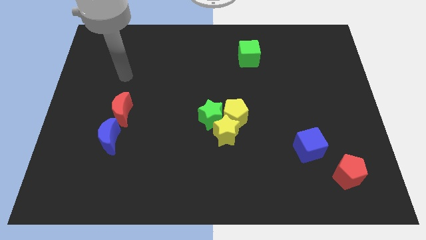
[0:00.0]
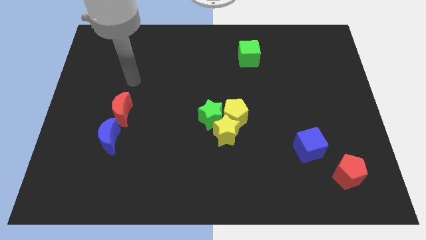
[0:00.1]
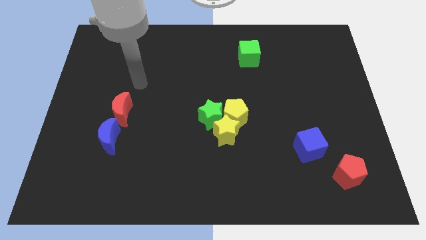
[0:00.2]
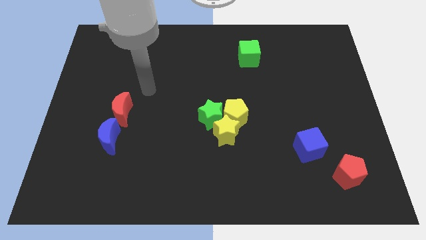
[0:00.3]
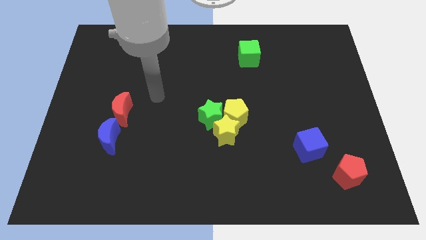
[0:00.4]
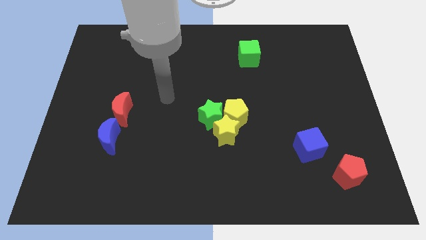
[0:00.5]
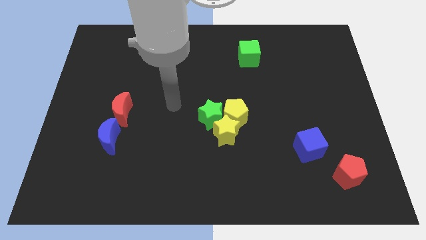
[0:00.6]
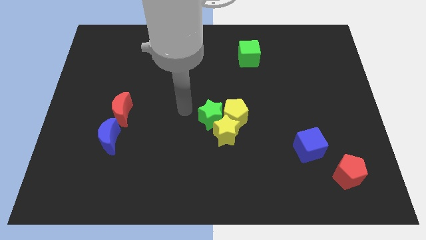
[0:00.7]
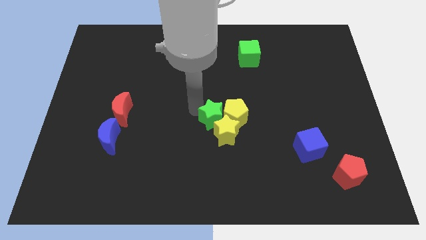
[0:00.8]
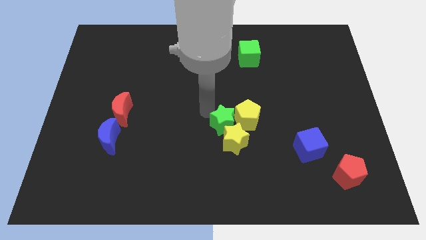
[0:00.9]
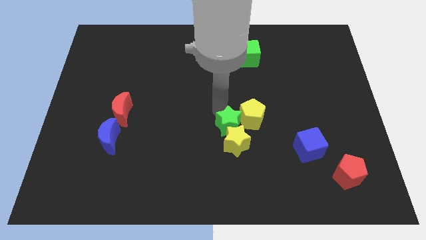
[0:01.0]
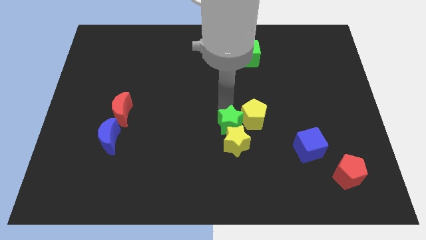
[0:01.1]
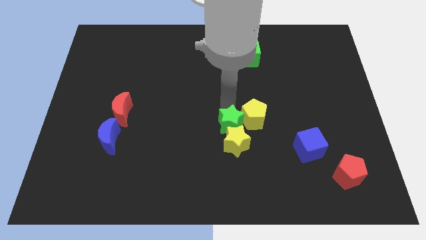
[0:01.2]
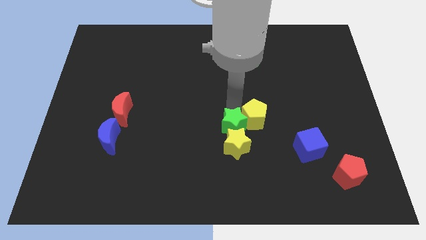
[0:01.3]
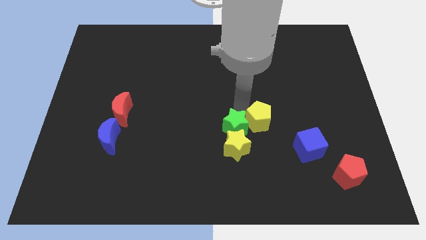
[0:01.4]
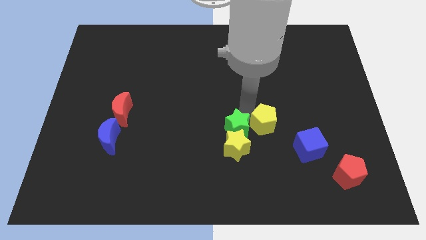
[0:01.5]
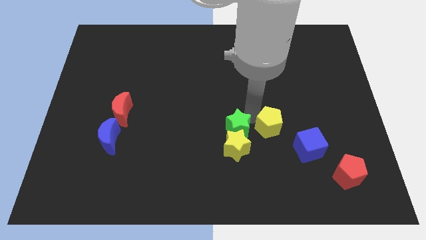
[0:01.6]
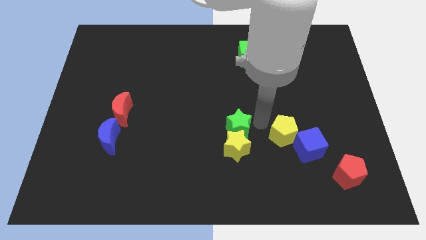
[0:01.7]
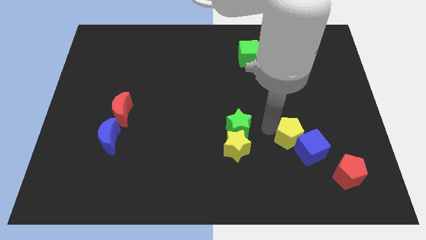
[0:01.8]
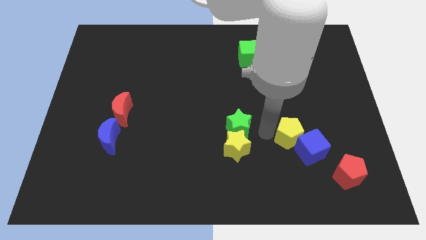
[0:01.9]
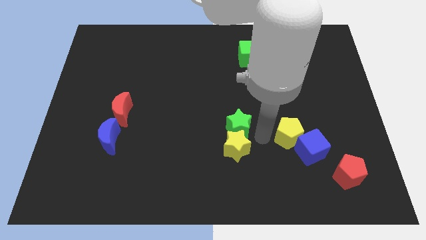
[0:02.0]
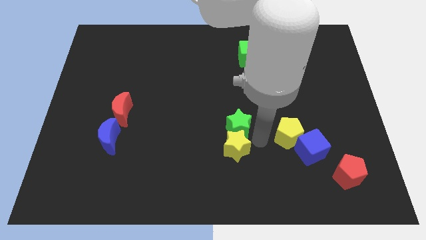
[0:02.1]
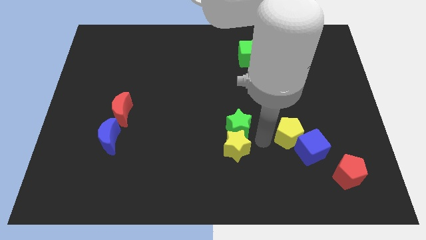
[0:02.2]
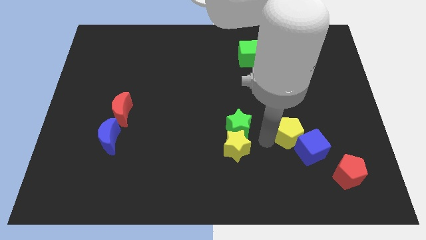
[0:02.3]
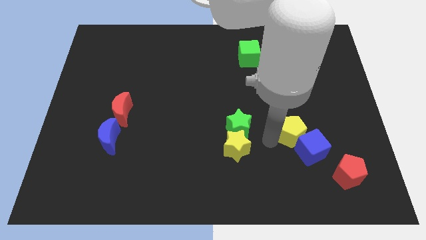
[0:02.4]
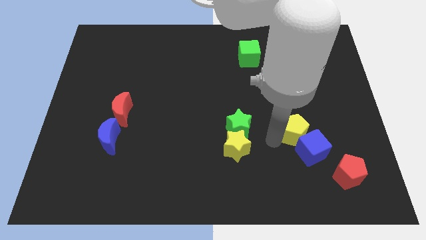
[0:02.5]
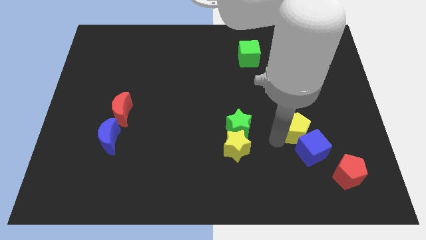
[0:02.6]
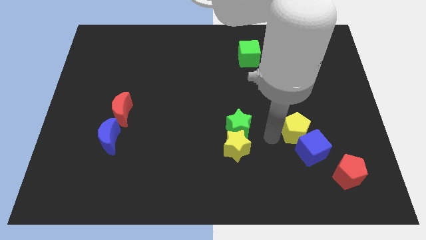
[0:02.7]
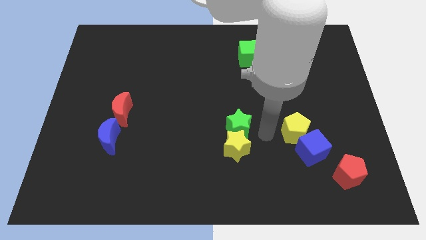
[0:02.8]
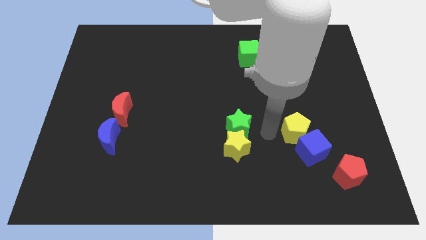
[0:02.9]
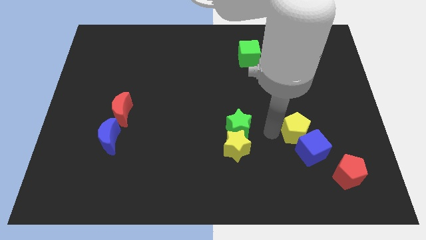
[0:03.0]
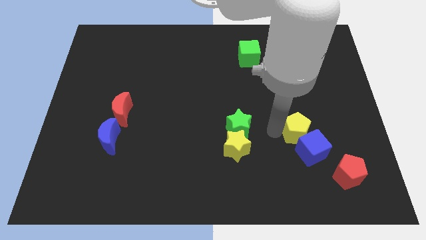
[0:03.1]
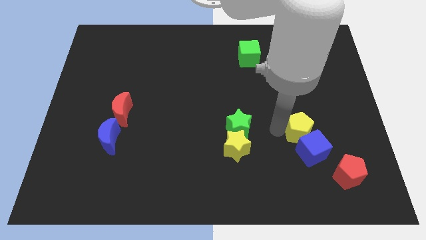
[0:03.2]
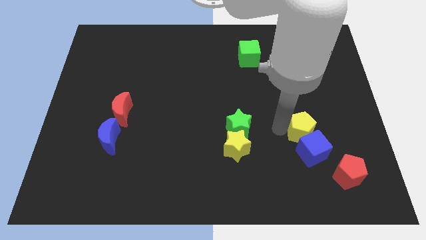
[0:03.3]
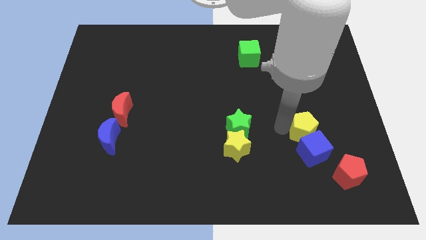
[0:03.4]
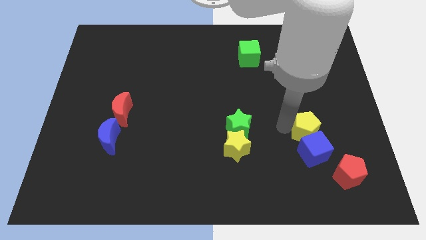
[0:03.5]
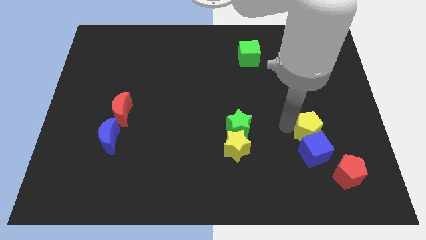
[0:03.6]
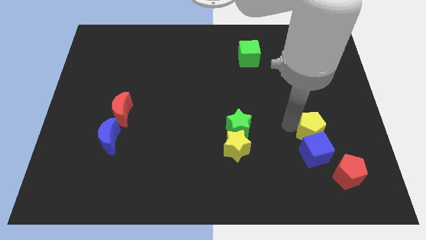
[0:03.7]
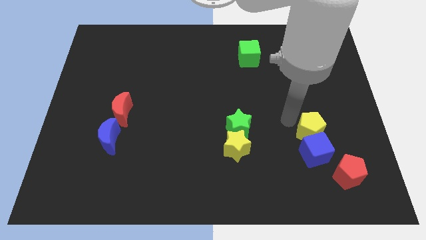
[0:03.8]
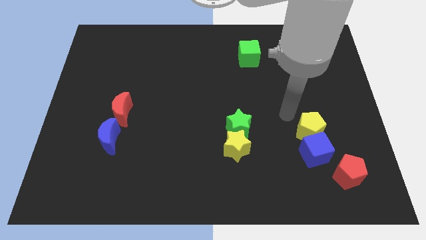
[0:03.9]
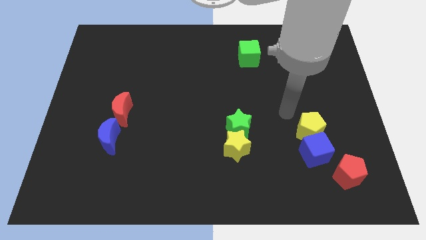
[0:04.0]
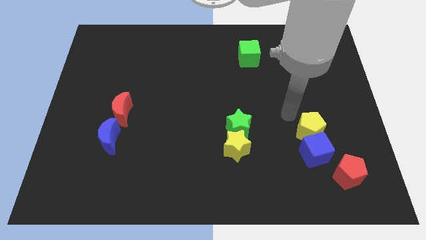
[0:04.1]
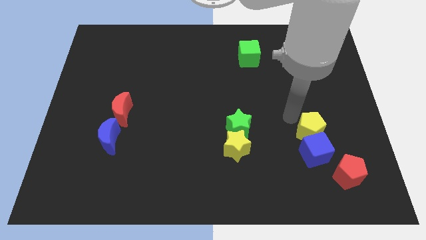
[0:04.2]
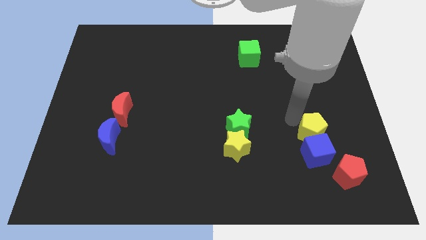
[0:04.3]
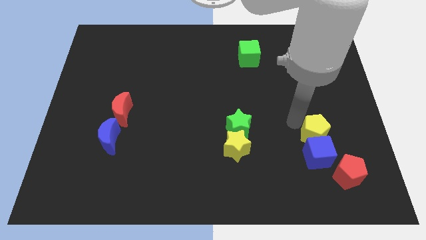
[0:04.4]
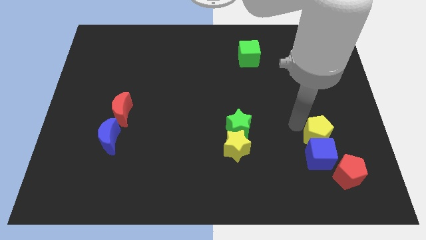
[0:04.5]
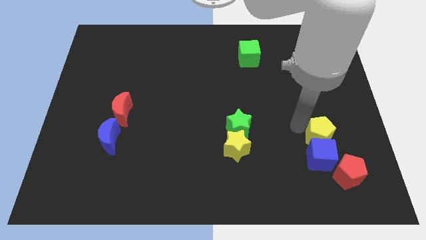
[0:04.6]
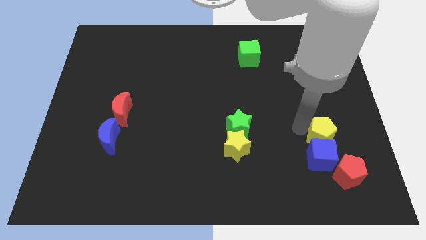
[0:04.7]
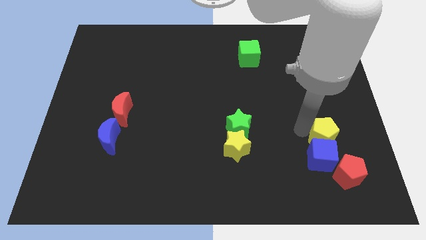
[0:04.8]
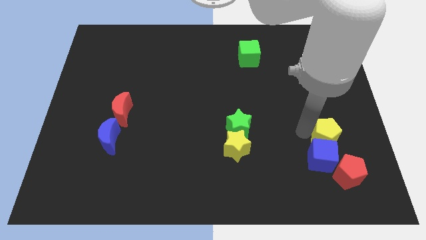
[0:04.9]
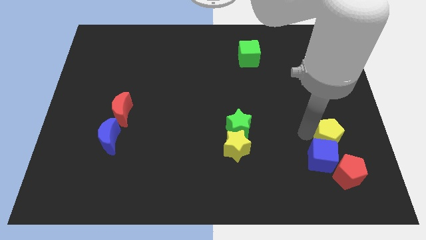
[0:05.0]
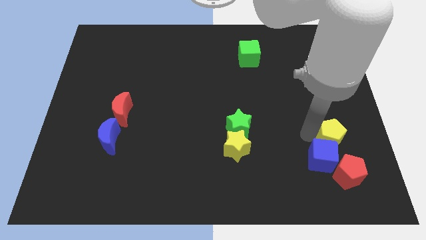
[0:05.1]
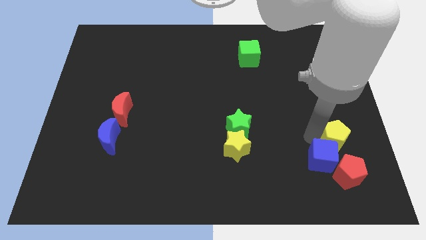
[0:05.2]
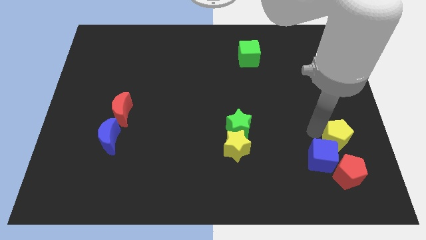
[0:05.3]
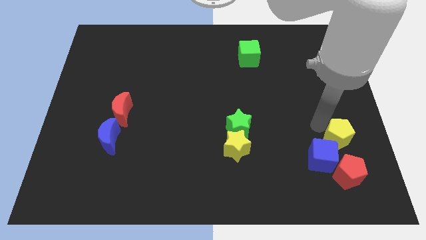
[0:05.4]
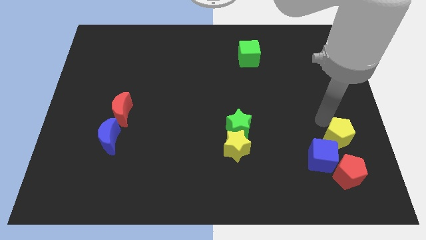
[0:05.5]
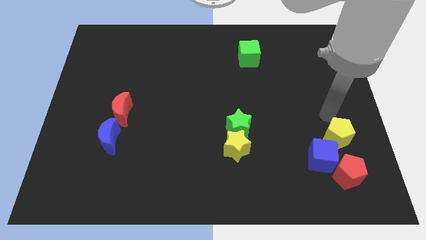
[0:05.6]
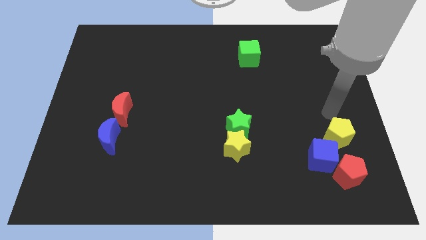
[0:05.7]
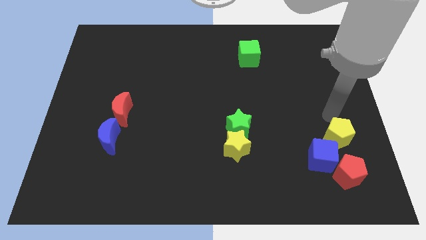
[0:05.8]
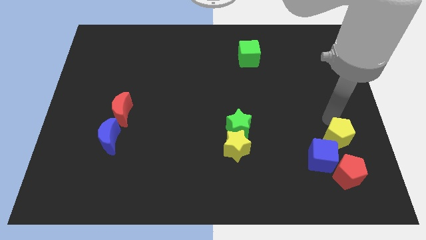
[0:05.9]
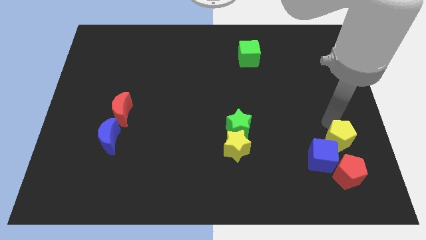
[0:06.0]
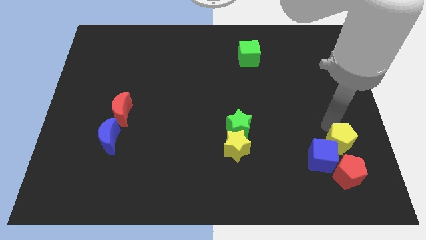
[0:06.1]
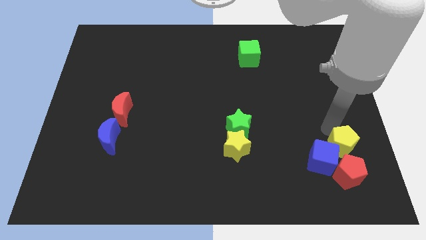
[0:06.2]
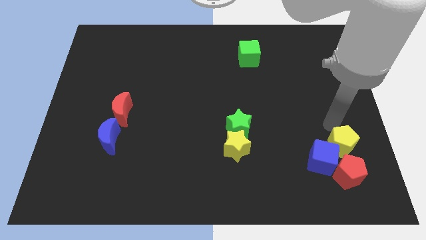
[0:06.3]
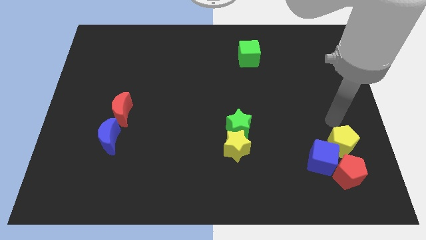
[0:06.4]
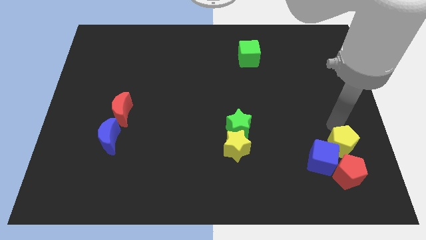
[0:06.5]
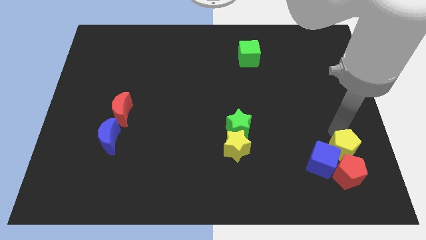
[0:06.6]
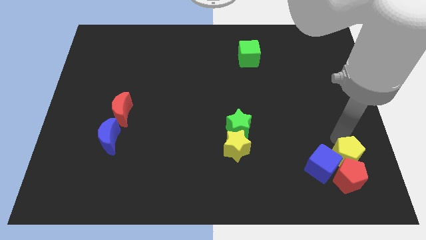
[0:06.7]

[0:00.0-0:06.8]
slide the yellow pentagon next to the red pentagon

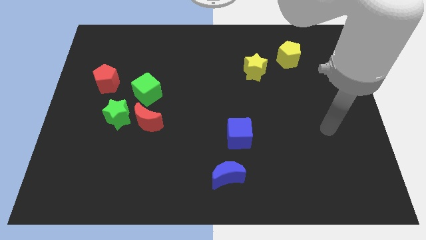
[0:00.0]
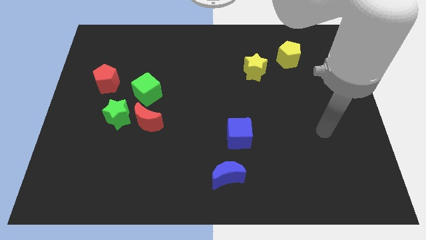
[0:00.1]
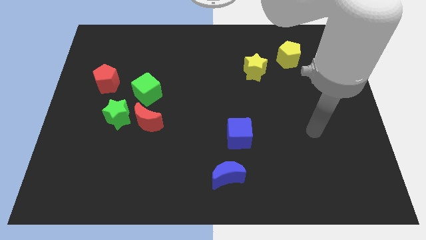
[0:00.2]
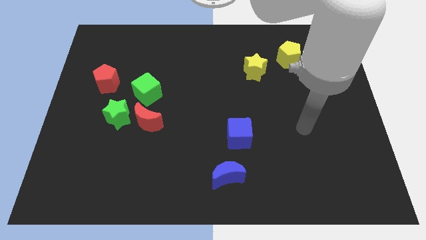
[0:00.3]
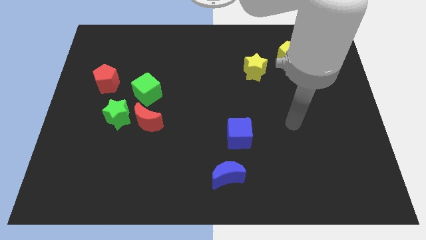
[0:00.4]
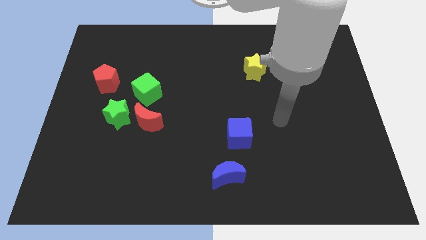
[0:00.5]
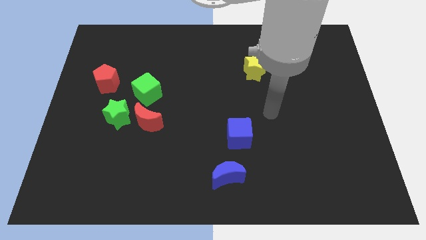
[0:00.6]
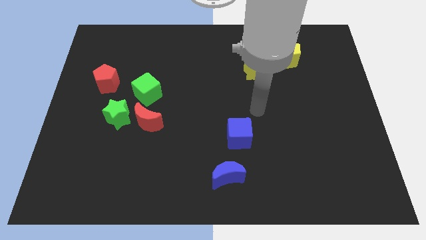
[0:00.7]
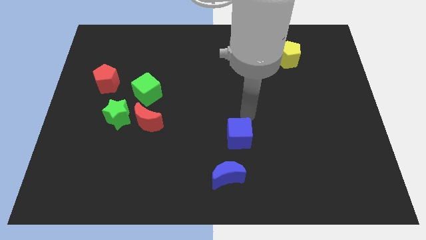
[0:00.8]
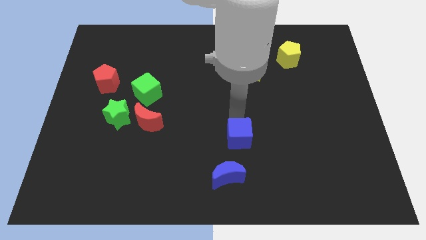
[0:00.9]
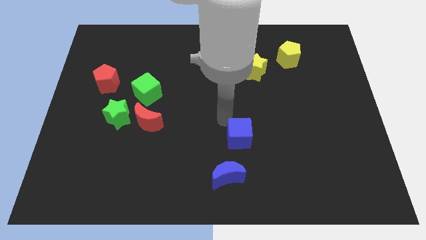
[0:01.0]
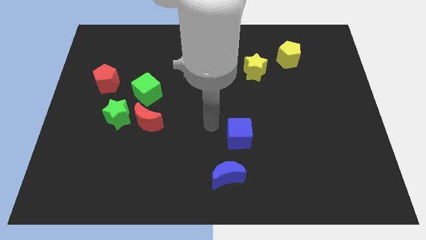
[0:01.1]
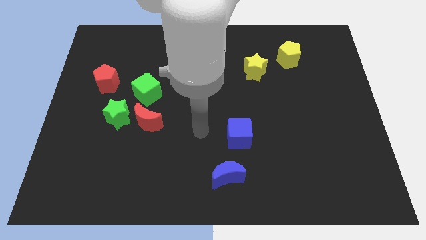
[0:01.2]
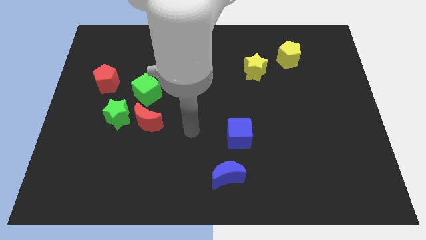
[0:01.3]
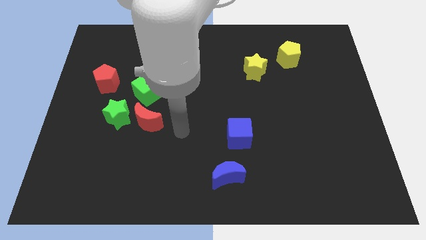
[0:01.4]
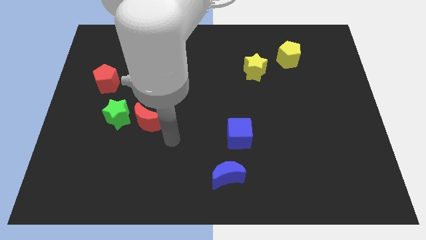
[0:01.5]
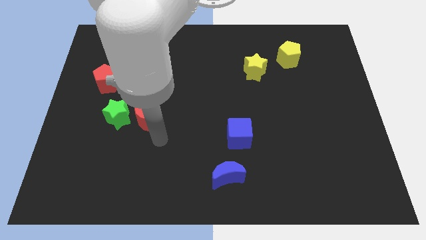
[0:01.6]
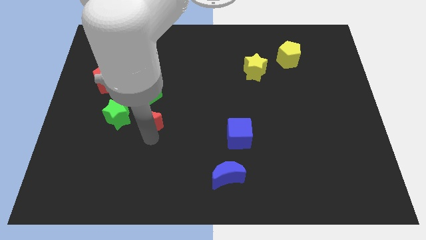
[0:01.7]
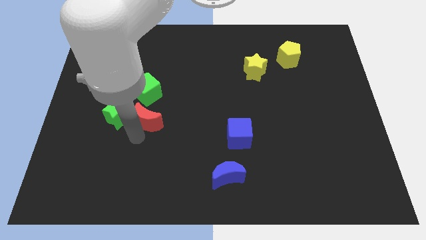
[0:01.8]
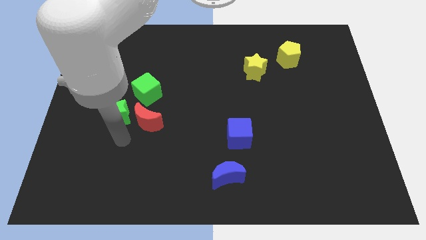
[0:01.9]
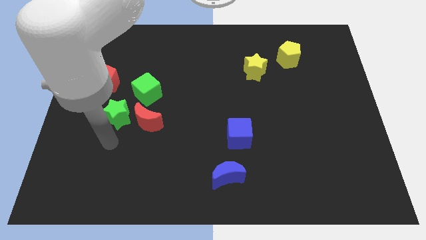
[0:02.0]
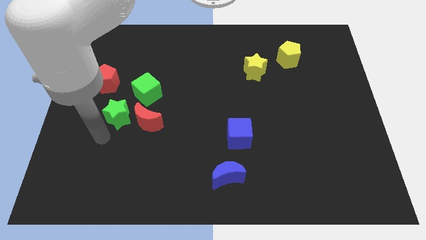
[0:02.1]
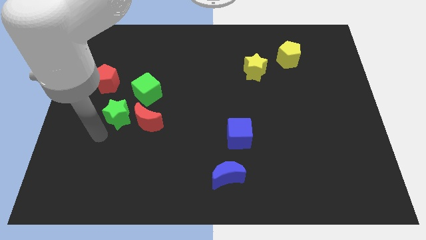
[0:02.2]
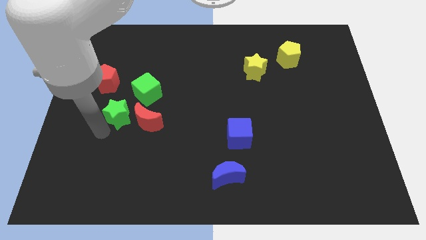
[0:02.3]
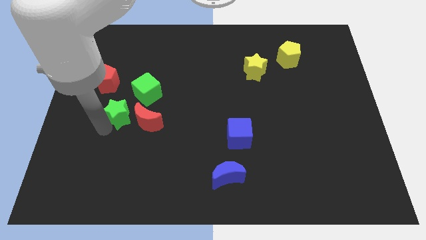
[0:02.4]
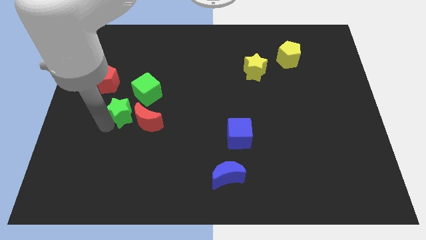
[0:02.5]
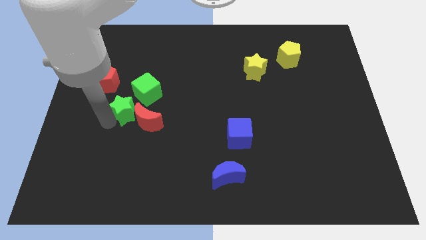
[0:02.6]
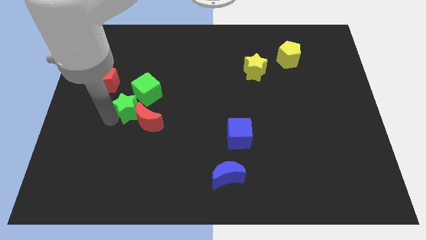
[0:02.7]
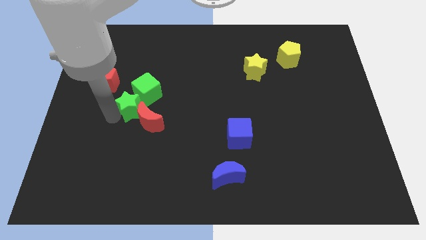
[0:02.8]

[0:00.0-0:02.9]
slide the green star close to the green cube
